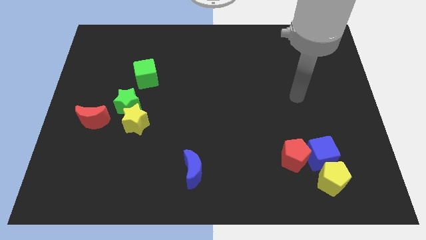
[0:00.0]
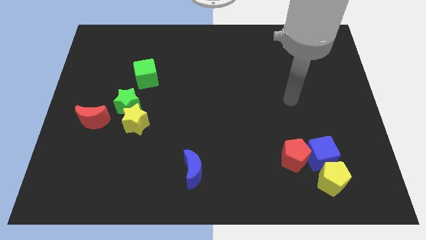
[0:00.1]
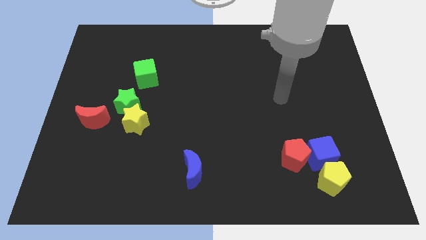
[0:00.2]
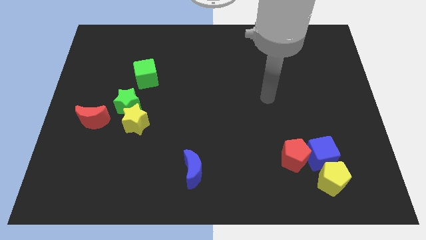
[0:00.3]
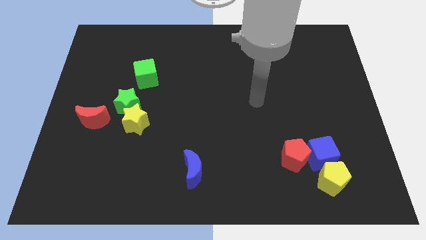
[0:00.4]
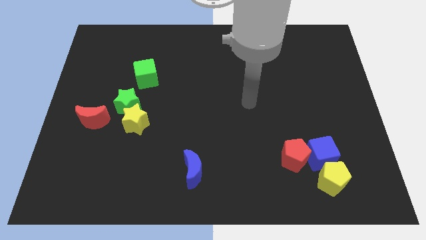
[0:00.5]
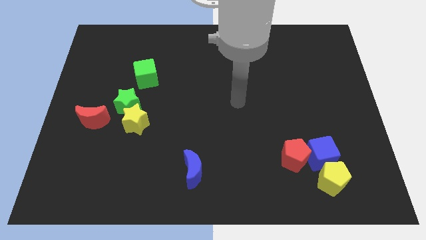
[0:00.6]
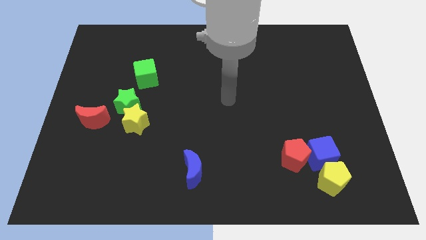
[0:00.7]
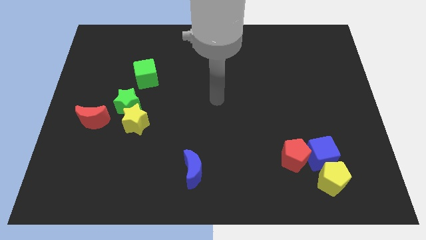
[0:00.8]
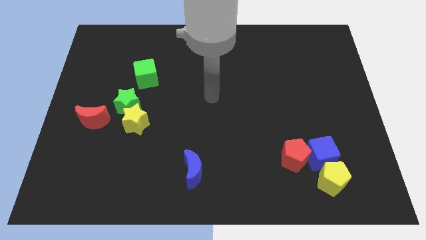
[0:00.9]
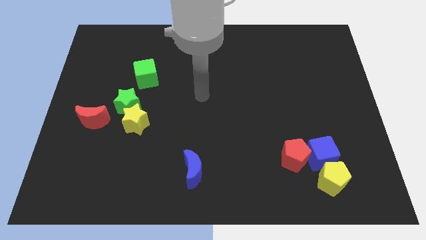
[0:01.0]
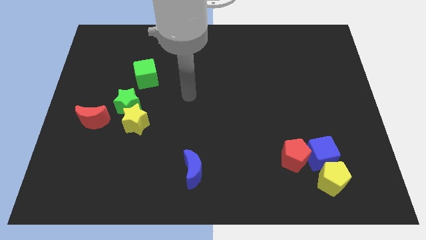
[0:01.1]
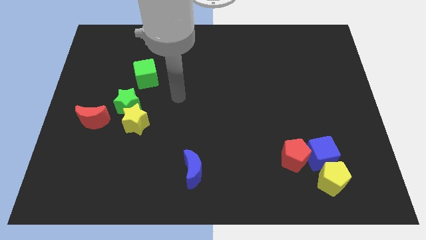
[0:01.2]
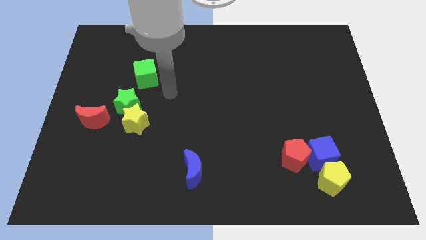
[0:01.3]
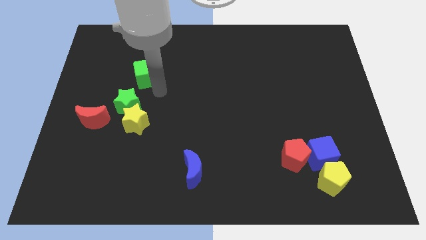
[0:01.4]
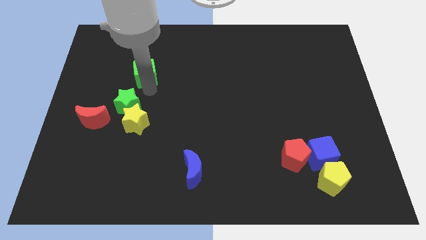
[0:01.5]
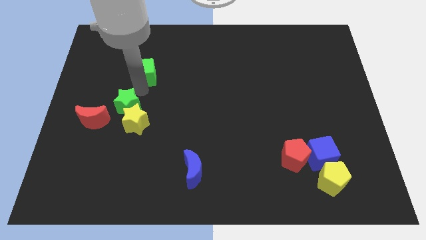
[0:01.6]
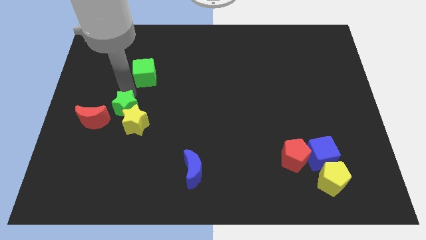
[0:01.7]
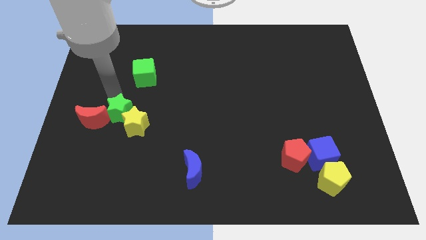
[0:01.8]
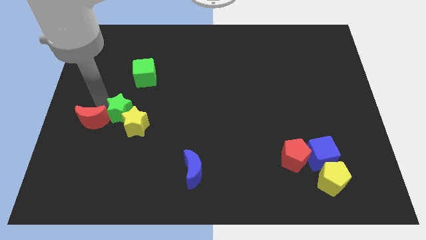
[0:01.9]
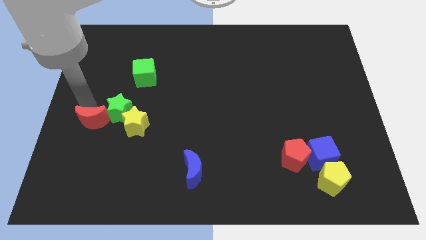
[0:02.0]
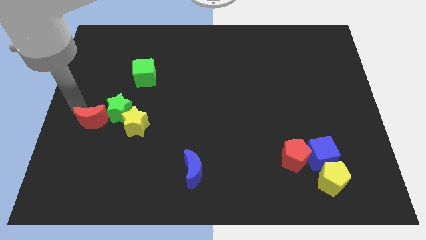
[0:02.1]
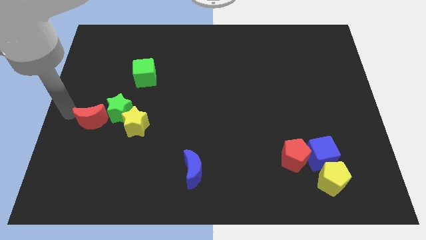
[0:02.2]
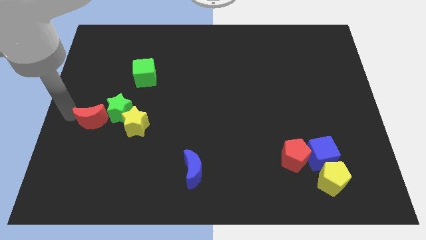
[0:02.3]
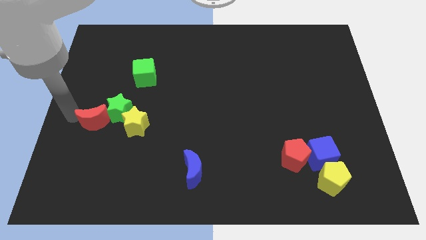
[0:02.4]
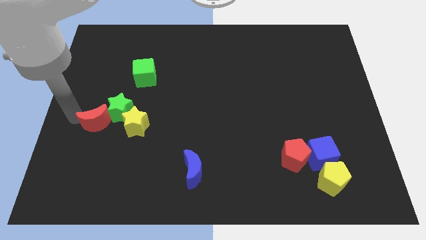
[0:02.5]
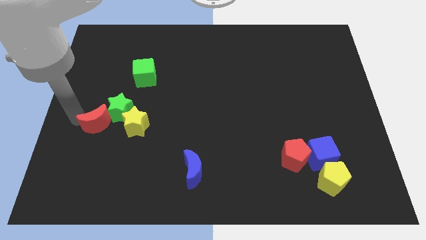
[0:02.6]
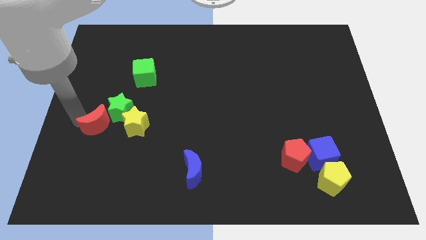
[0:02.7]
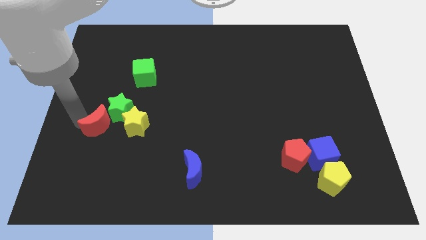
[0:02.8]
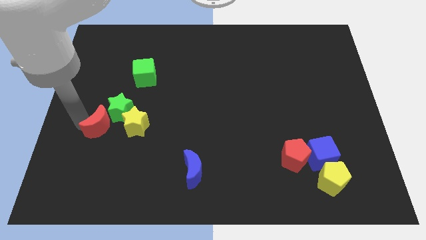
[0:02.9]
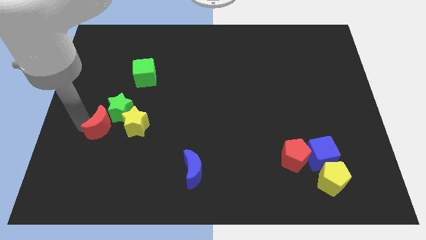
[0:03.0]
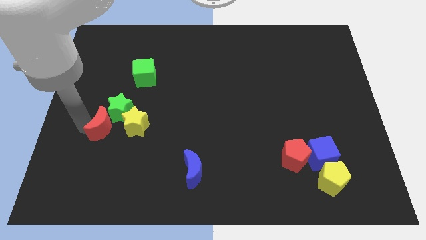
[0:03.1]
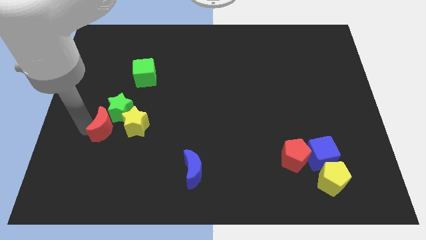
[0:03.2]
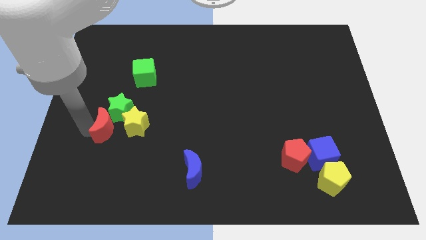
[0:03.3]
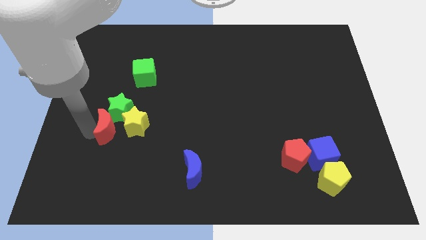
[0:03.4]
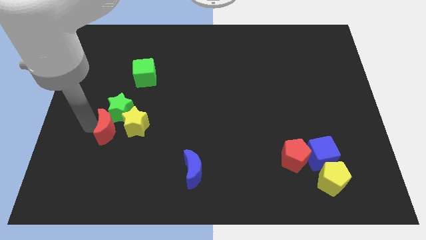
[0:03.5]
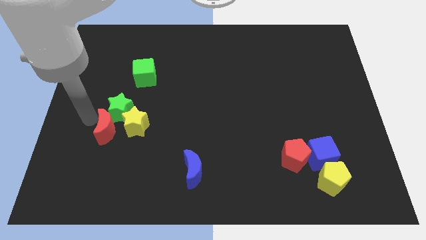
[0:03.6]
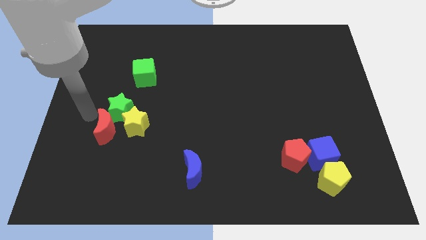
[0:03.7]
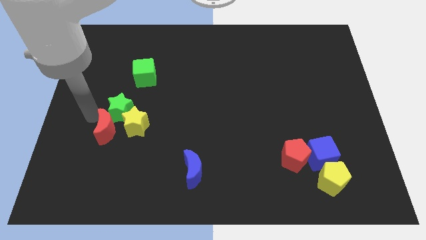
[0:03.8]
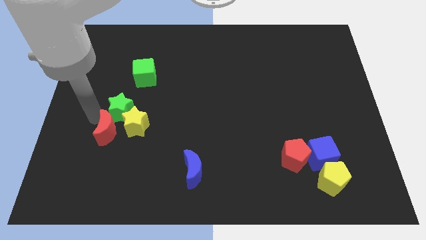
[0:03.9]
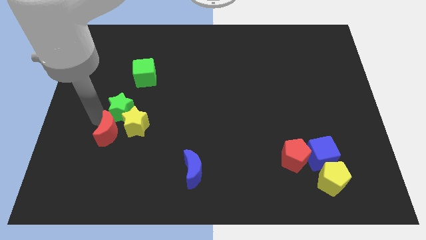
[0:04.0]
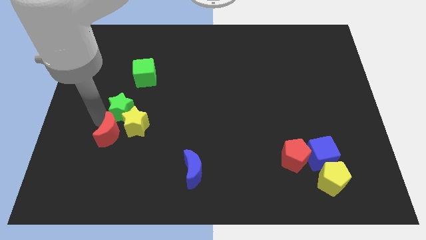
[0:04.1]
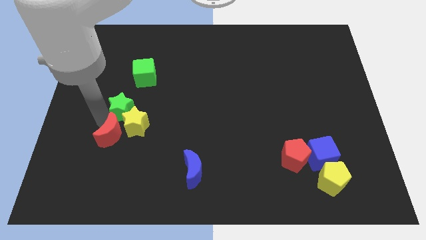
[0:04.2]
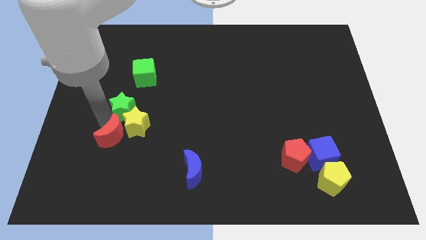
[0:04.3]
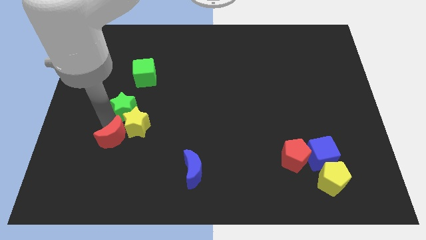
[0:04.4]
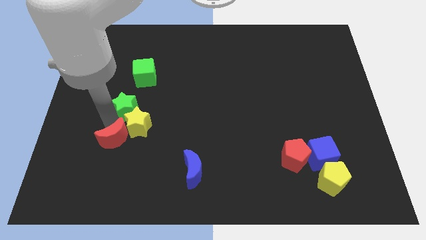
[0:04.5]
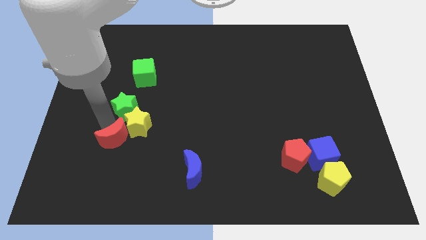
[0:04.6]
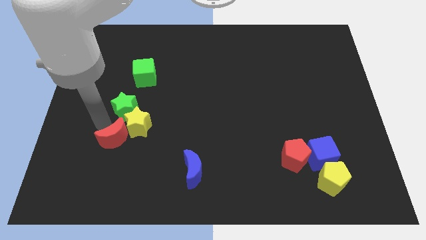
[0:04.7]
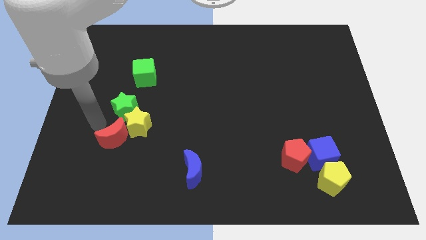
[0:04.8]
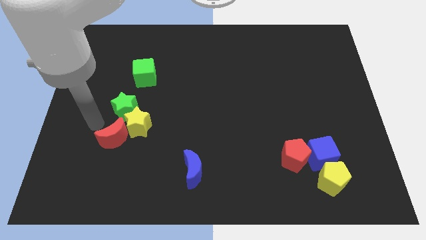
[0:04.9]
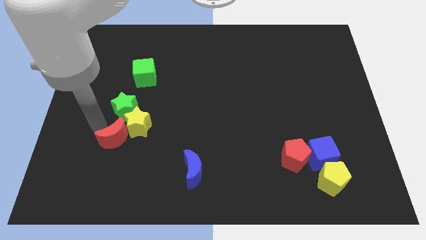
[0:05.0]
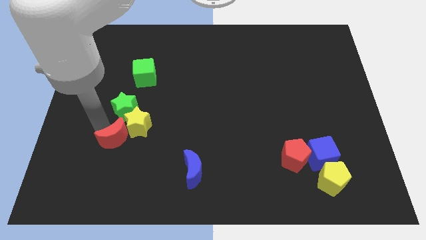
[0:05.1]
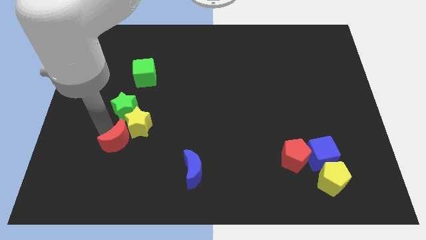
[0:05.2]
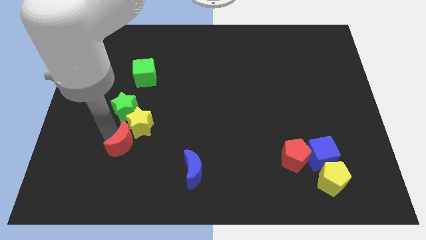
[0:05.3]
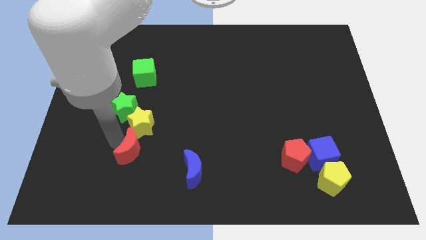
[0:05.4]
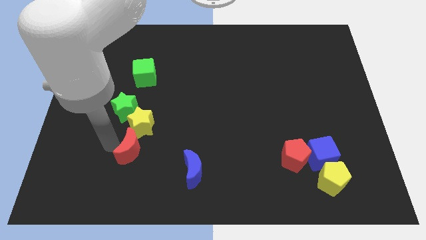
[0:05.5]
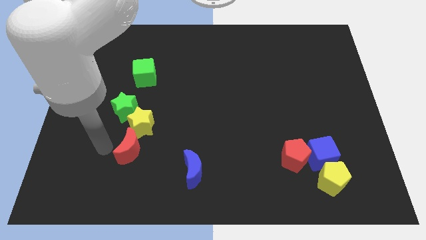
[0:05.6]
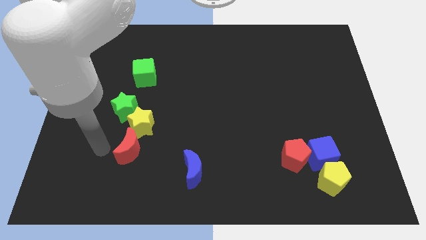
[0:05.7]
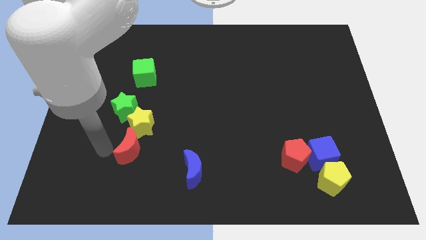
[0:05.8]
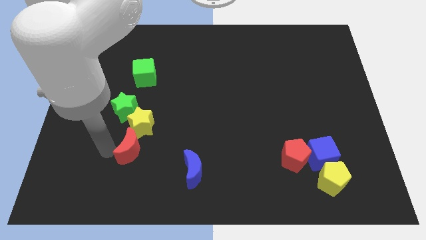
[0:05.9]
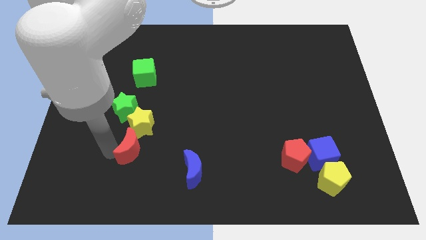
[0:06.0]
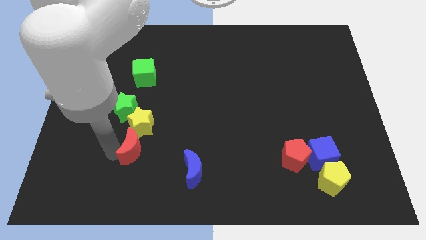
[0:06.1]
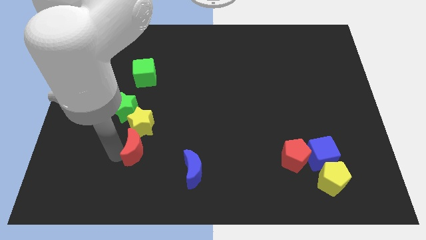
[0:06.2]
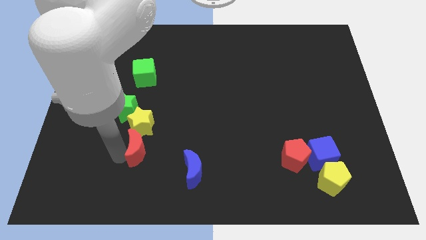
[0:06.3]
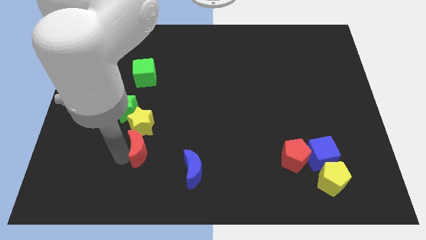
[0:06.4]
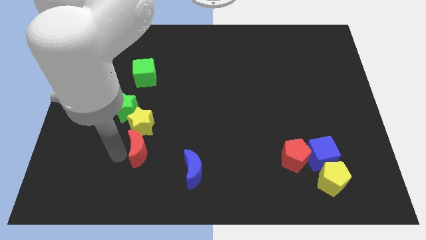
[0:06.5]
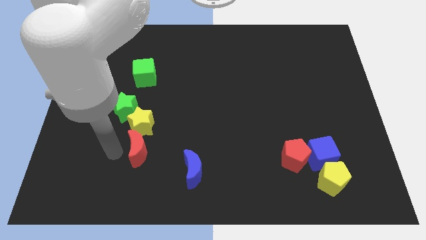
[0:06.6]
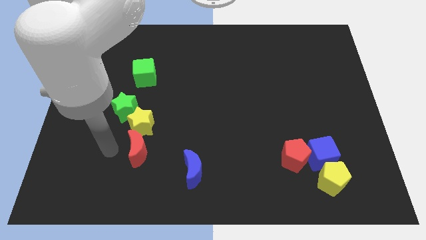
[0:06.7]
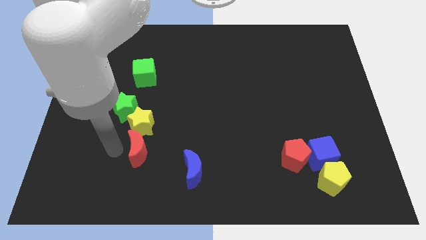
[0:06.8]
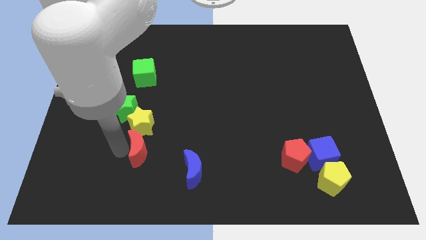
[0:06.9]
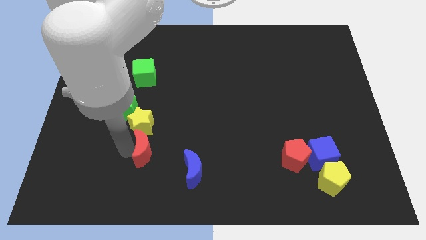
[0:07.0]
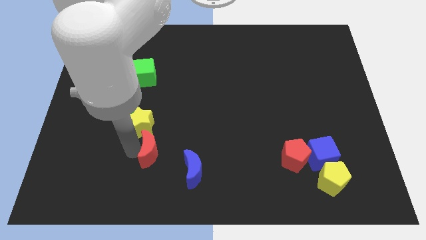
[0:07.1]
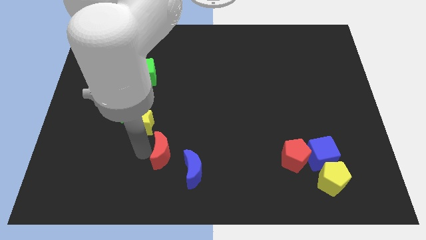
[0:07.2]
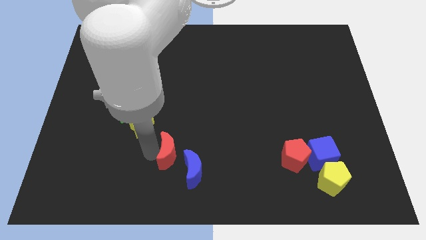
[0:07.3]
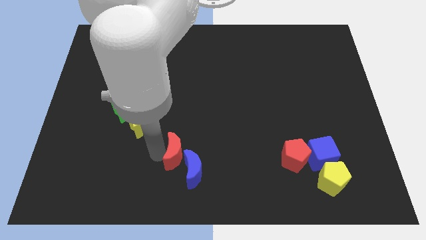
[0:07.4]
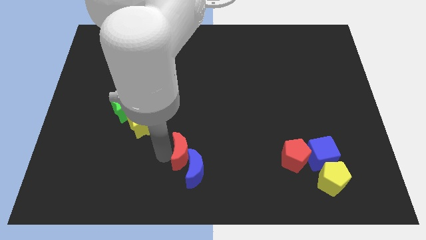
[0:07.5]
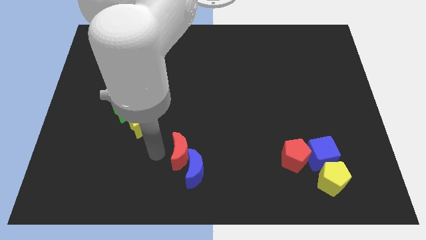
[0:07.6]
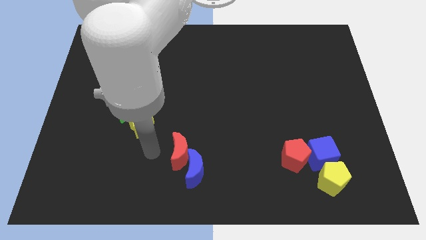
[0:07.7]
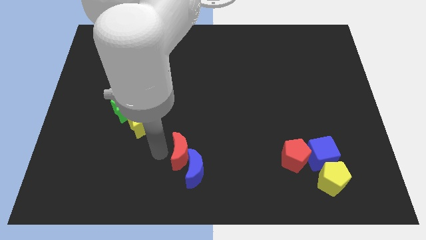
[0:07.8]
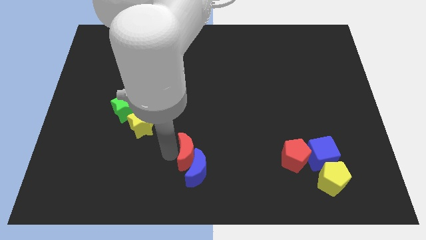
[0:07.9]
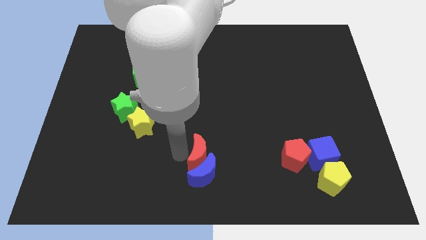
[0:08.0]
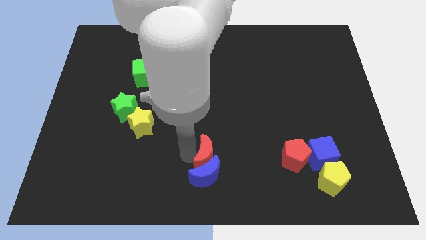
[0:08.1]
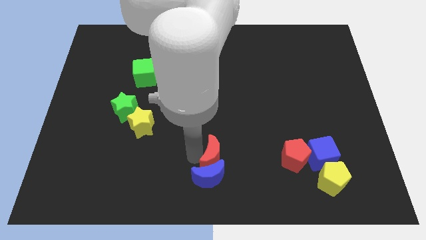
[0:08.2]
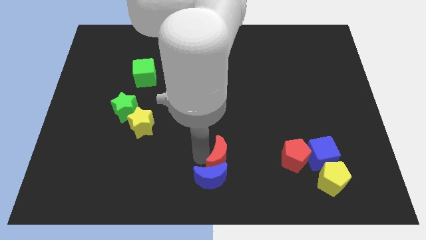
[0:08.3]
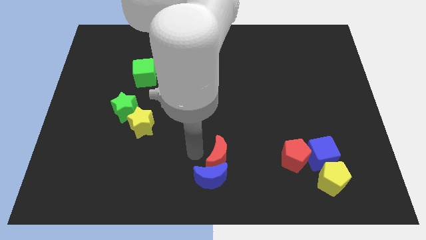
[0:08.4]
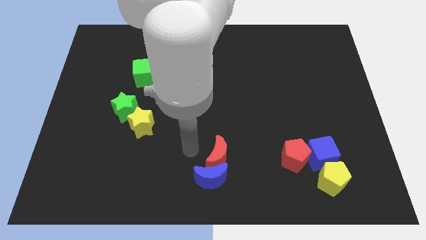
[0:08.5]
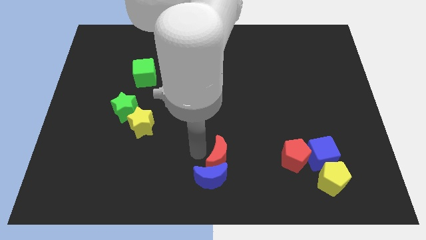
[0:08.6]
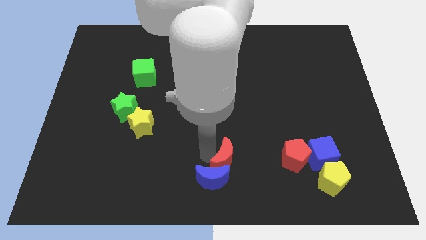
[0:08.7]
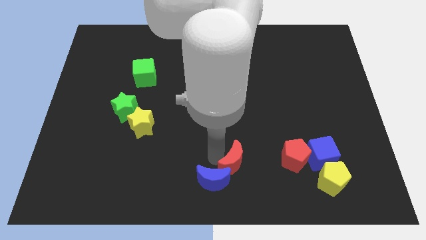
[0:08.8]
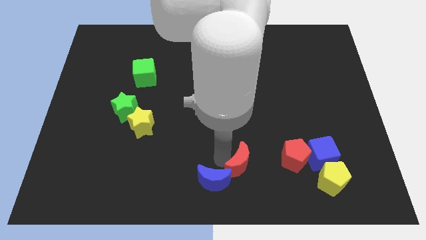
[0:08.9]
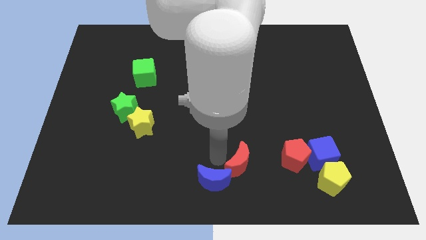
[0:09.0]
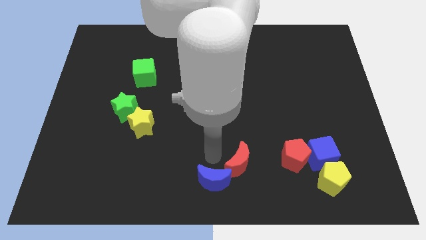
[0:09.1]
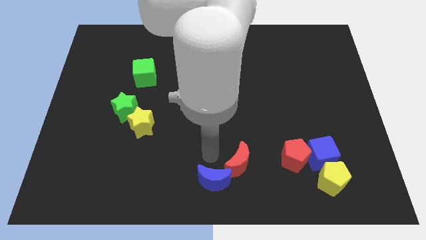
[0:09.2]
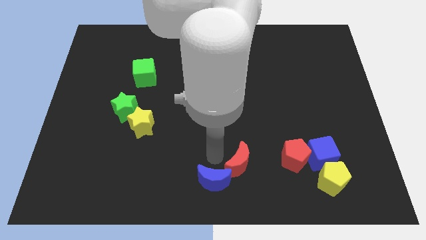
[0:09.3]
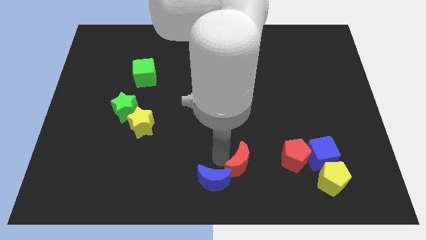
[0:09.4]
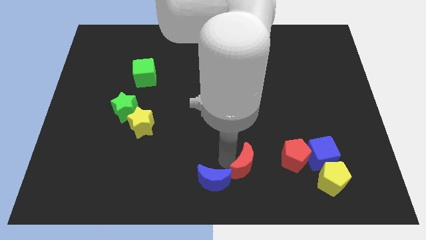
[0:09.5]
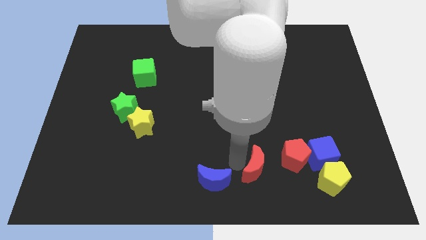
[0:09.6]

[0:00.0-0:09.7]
put the red moon to the left of the yellow pentagon
